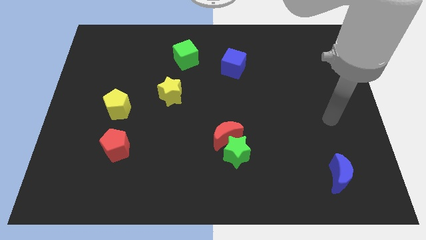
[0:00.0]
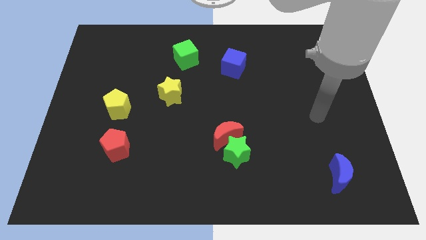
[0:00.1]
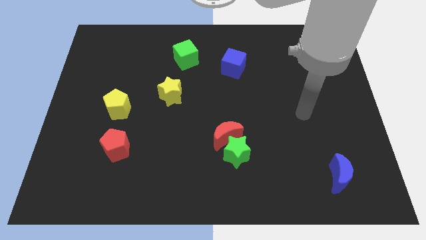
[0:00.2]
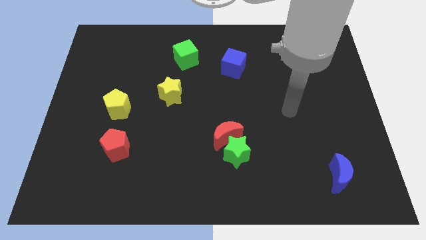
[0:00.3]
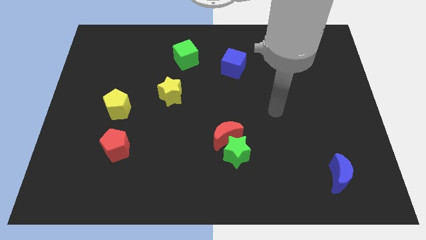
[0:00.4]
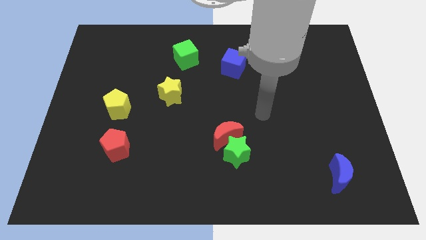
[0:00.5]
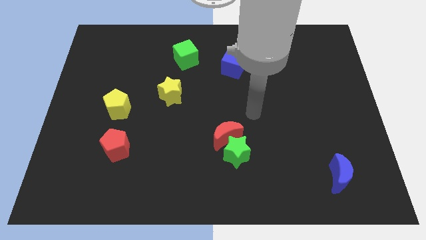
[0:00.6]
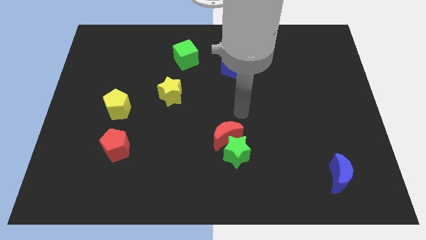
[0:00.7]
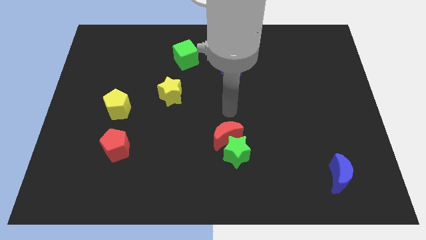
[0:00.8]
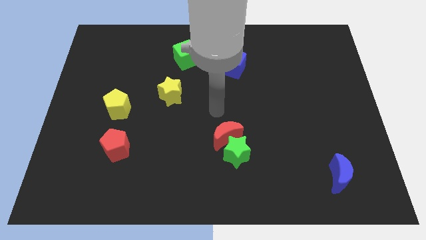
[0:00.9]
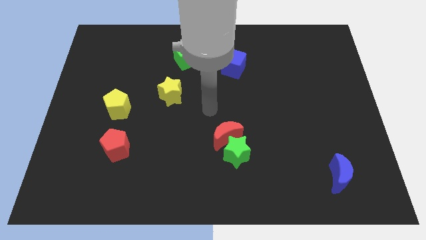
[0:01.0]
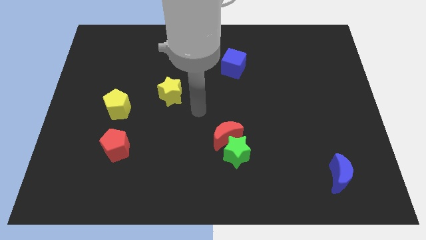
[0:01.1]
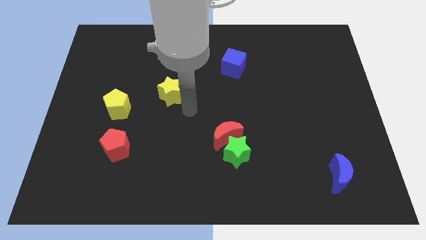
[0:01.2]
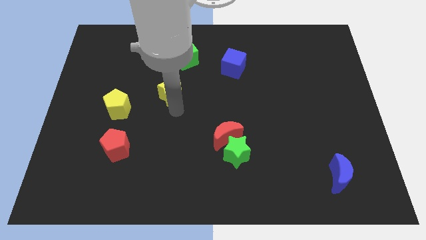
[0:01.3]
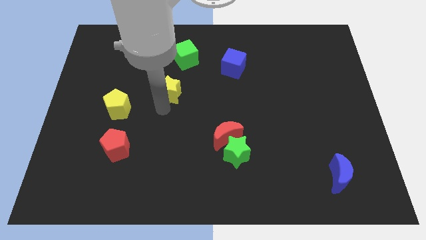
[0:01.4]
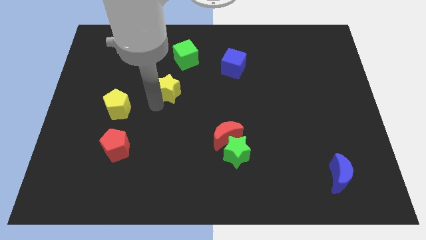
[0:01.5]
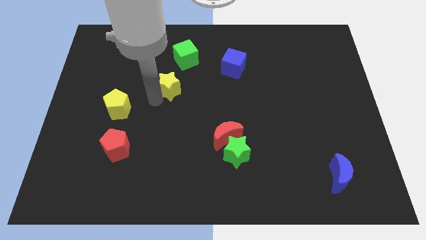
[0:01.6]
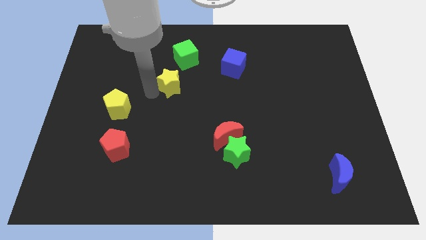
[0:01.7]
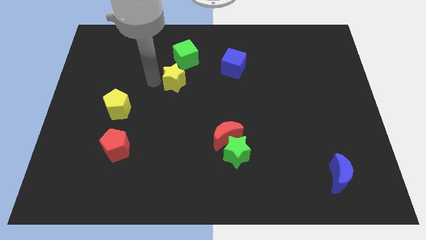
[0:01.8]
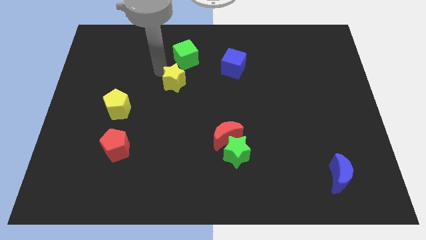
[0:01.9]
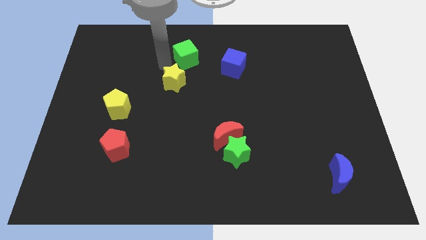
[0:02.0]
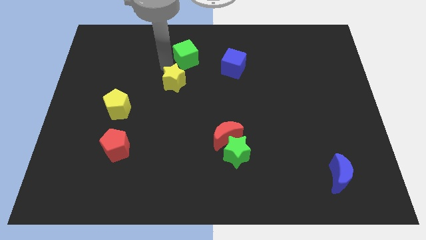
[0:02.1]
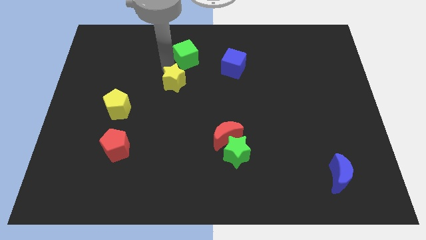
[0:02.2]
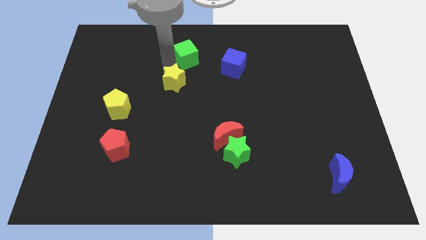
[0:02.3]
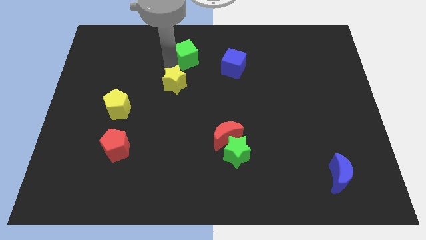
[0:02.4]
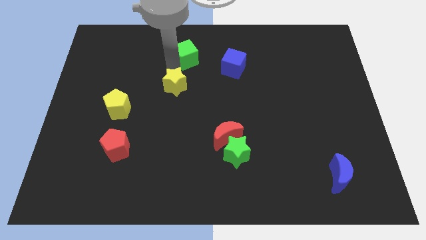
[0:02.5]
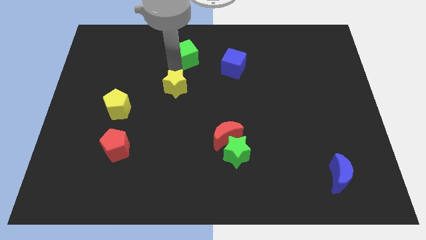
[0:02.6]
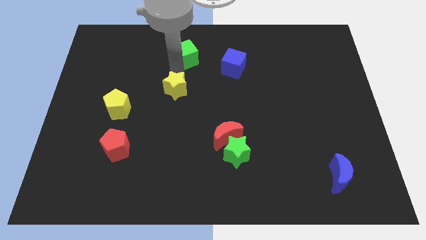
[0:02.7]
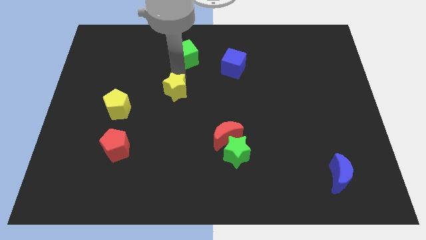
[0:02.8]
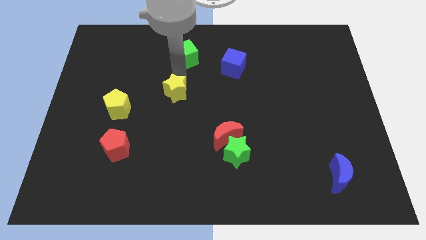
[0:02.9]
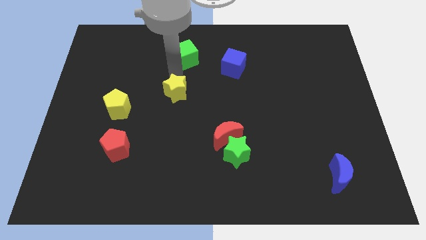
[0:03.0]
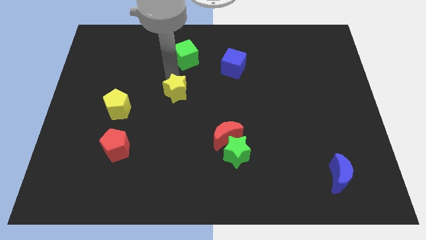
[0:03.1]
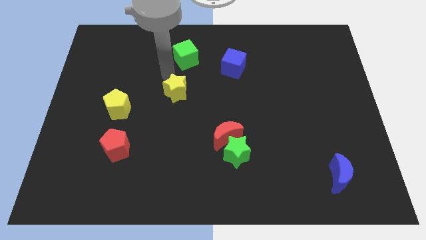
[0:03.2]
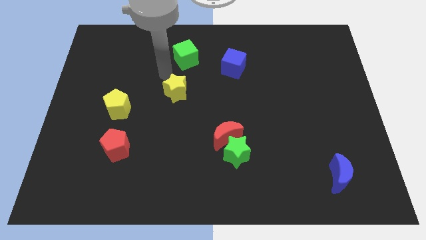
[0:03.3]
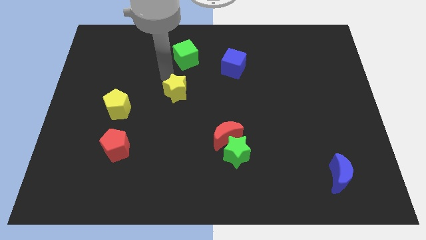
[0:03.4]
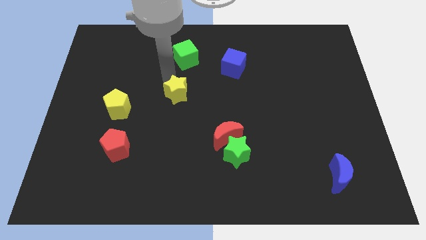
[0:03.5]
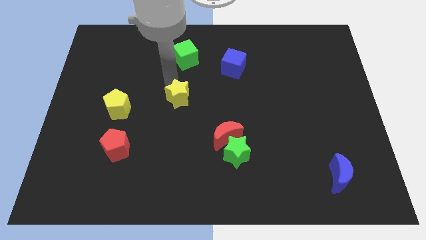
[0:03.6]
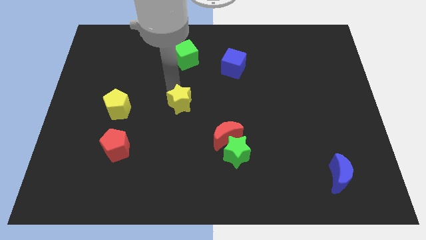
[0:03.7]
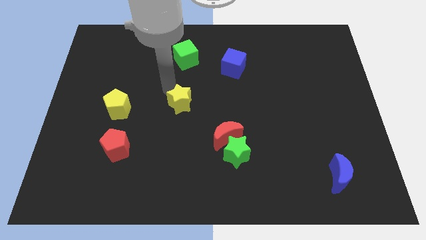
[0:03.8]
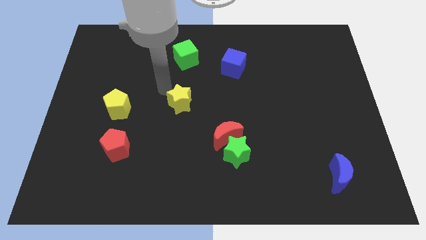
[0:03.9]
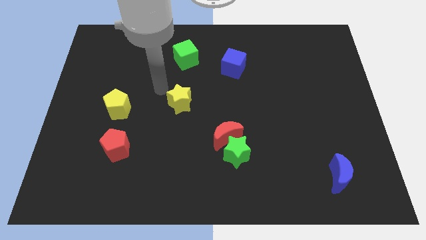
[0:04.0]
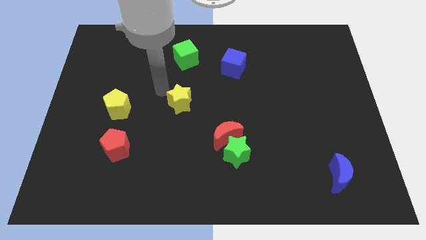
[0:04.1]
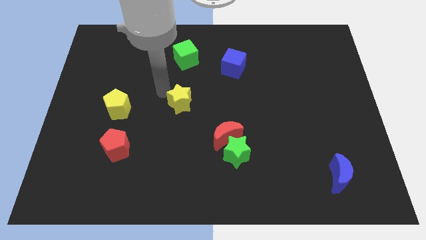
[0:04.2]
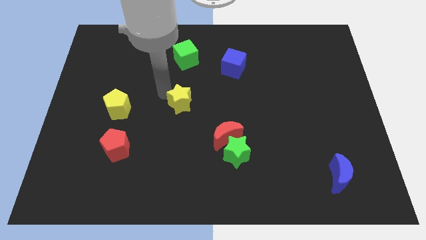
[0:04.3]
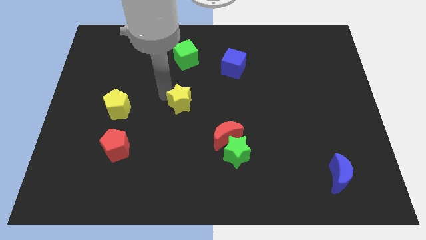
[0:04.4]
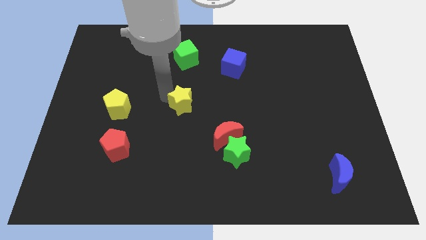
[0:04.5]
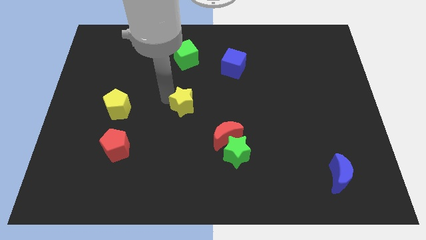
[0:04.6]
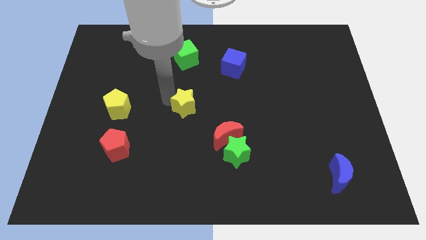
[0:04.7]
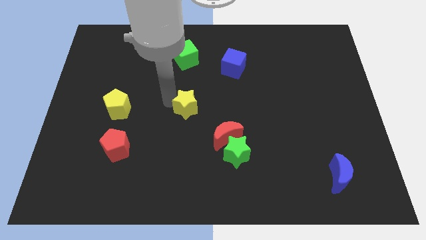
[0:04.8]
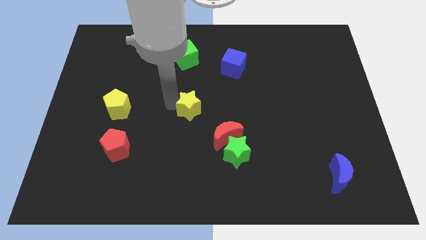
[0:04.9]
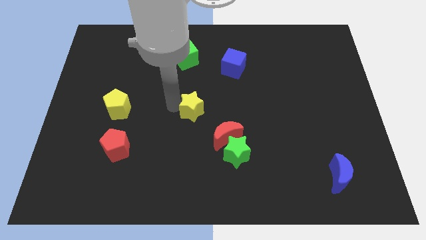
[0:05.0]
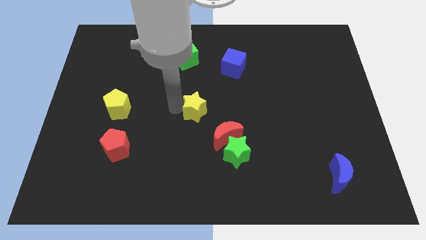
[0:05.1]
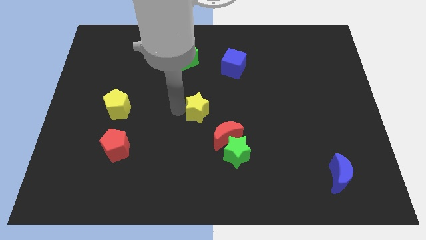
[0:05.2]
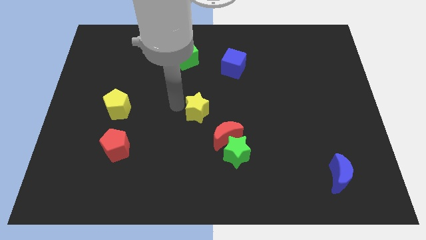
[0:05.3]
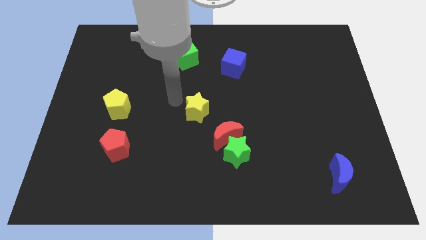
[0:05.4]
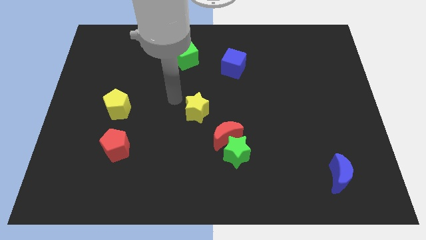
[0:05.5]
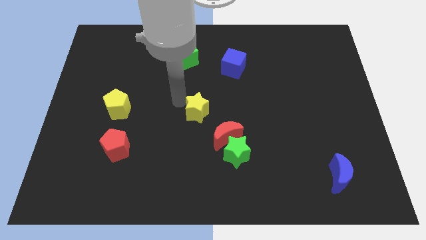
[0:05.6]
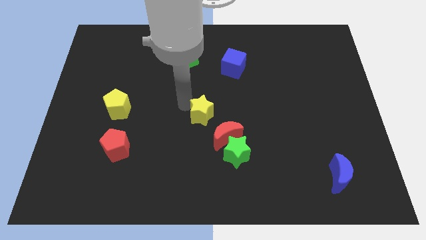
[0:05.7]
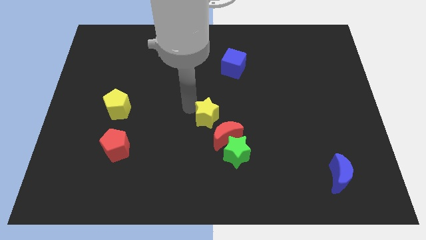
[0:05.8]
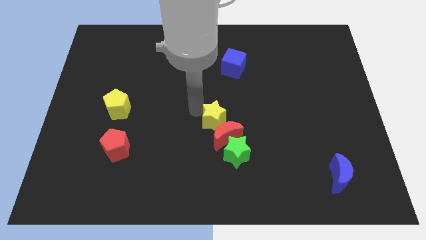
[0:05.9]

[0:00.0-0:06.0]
push the yellow star close to the red moon
